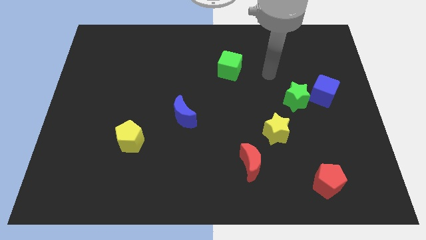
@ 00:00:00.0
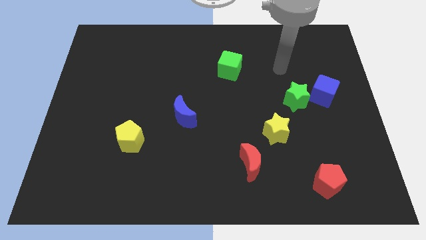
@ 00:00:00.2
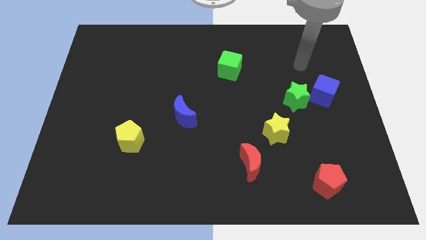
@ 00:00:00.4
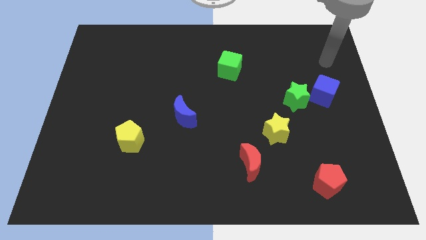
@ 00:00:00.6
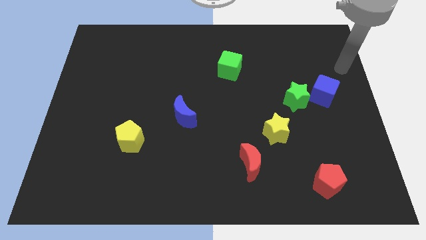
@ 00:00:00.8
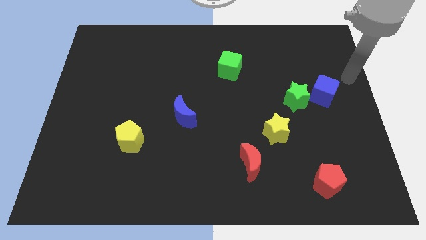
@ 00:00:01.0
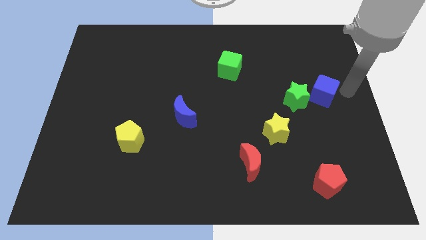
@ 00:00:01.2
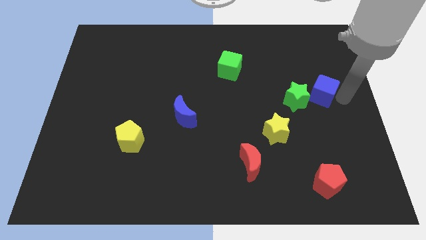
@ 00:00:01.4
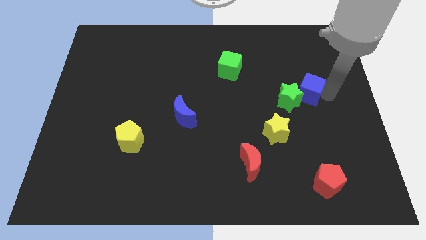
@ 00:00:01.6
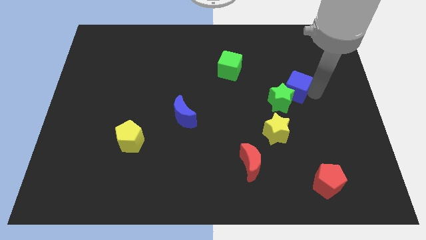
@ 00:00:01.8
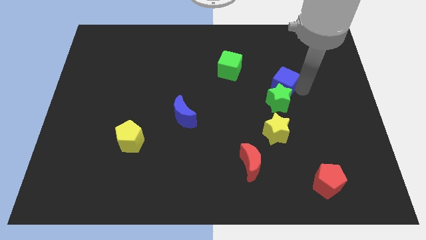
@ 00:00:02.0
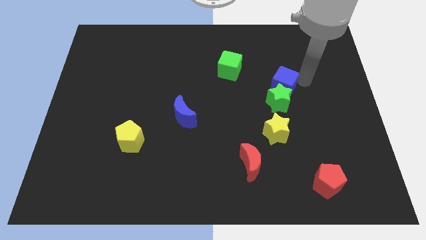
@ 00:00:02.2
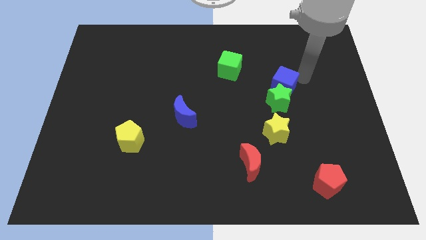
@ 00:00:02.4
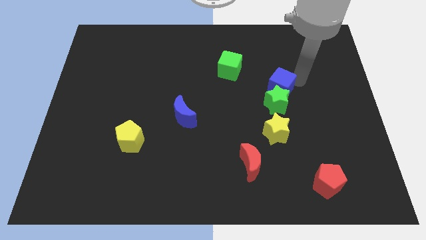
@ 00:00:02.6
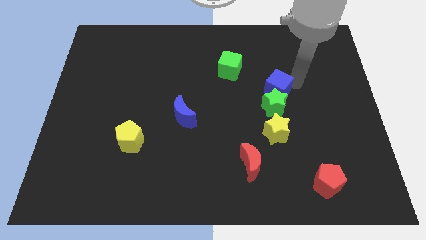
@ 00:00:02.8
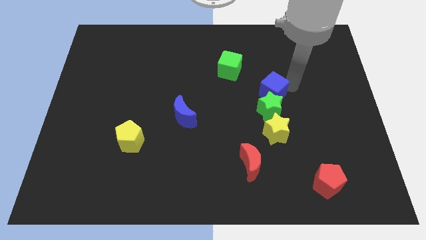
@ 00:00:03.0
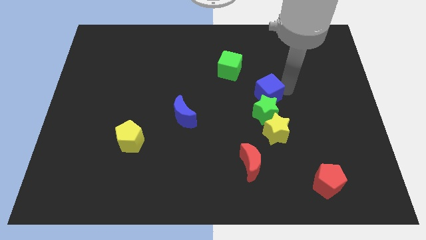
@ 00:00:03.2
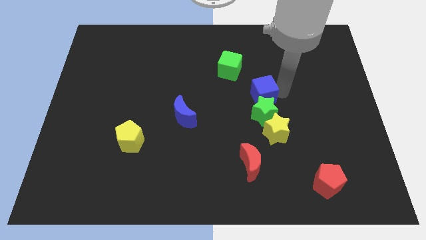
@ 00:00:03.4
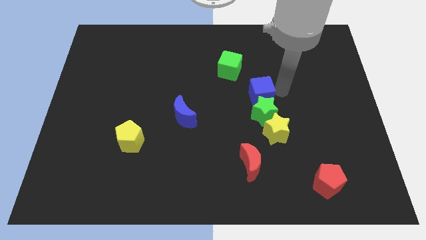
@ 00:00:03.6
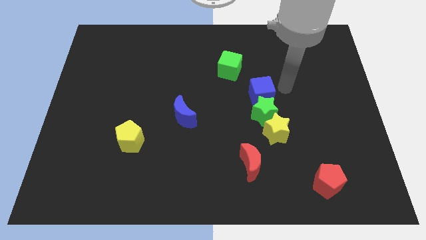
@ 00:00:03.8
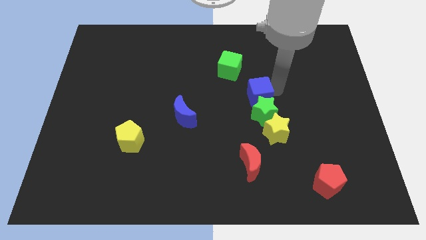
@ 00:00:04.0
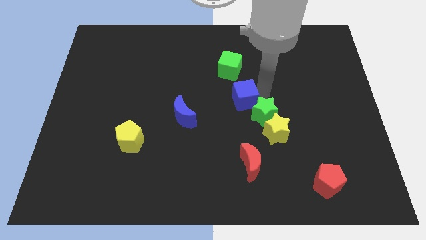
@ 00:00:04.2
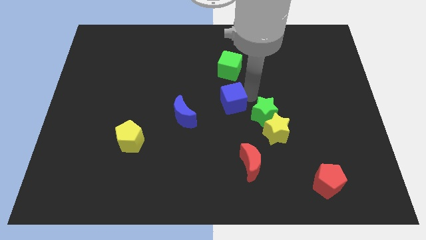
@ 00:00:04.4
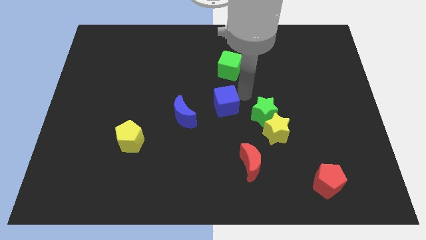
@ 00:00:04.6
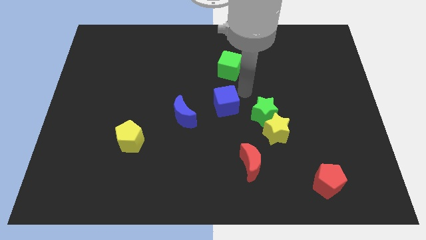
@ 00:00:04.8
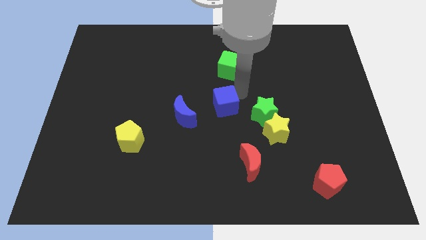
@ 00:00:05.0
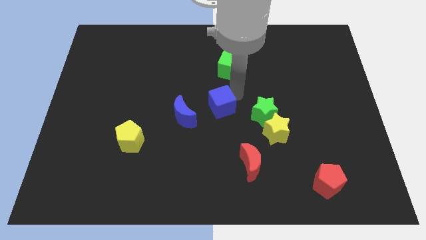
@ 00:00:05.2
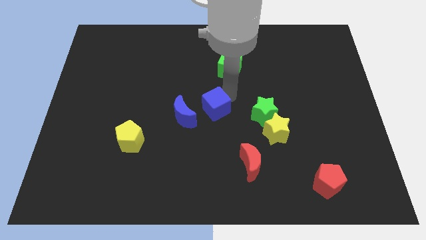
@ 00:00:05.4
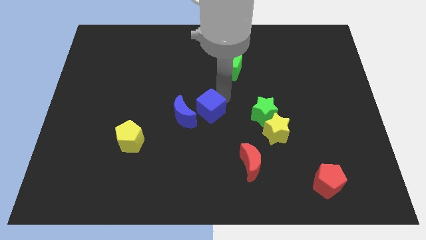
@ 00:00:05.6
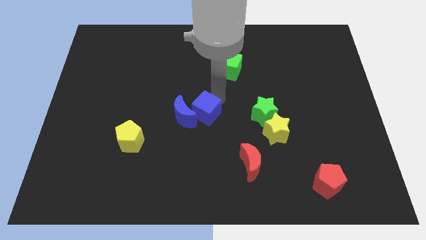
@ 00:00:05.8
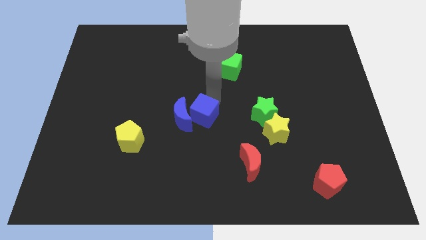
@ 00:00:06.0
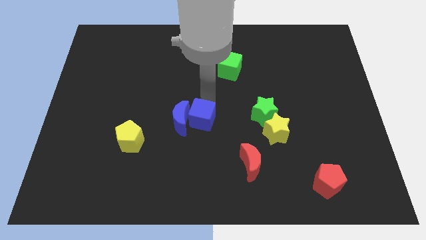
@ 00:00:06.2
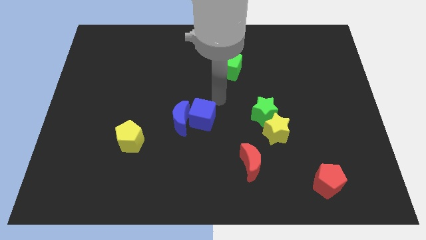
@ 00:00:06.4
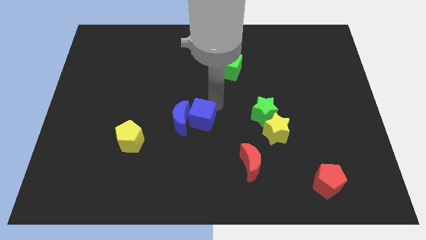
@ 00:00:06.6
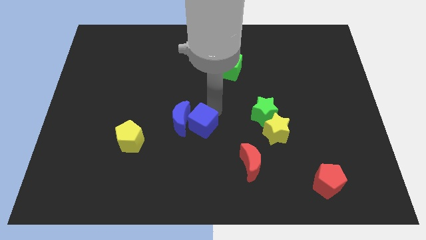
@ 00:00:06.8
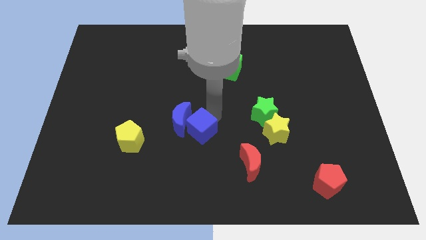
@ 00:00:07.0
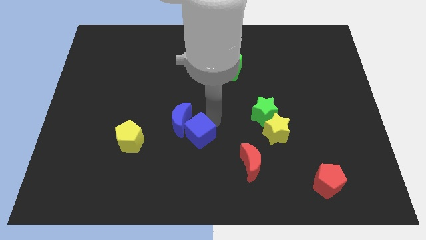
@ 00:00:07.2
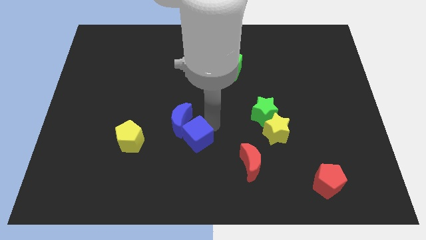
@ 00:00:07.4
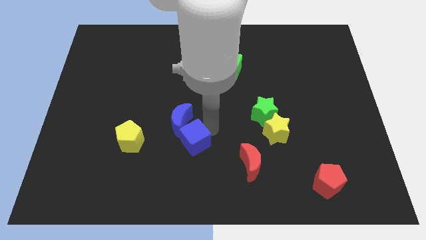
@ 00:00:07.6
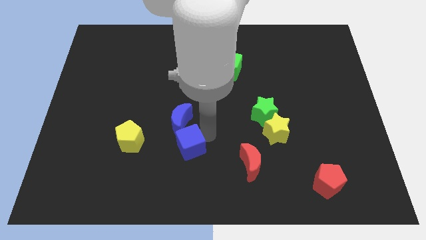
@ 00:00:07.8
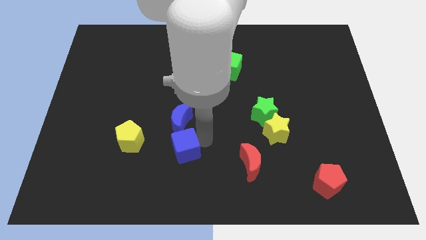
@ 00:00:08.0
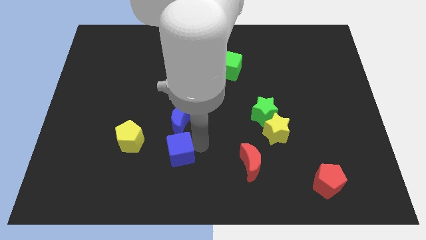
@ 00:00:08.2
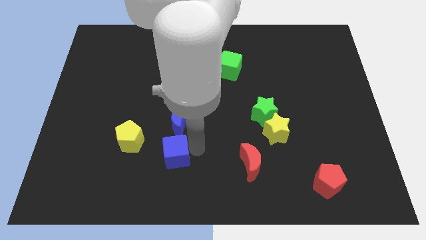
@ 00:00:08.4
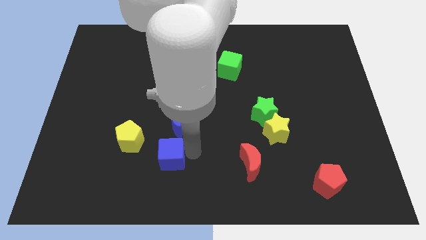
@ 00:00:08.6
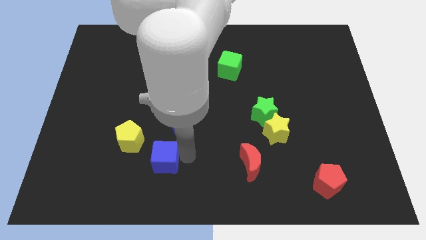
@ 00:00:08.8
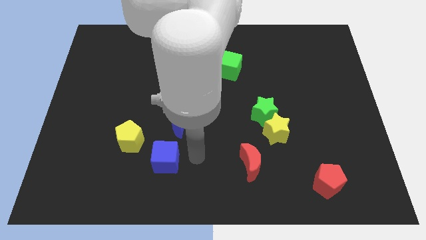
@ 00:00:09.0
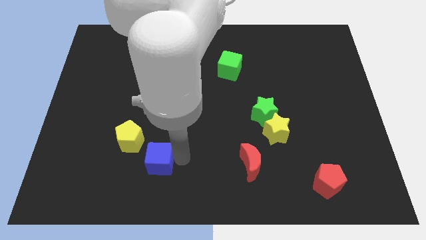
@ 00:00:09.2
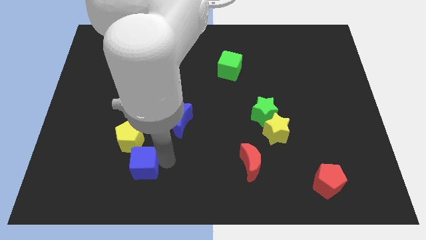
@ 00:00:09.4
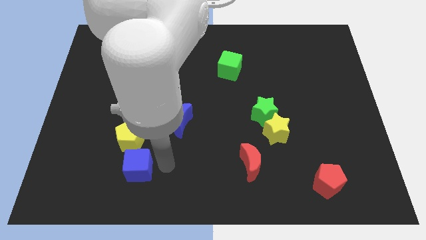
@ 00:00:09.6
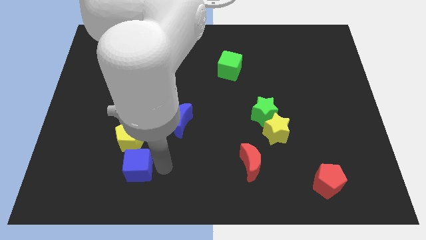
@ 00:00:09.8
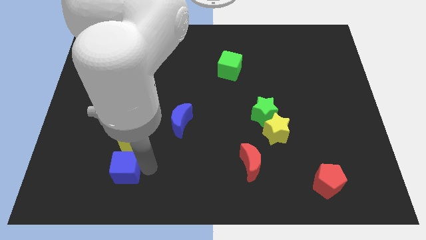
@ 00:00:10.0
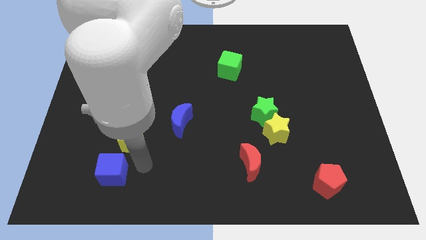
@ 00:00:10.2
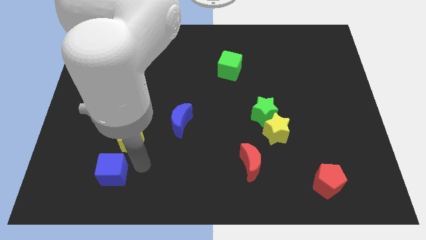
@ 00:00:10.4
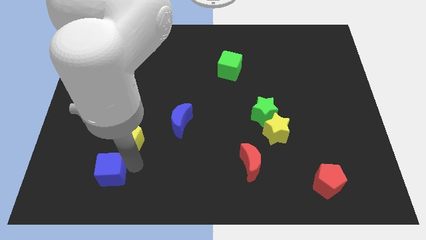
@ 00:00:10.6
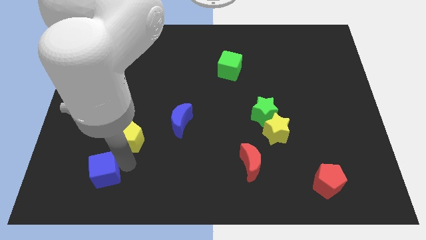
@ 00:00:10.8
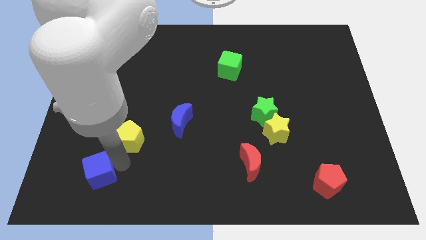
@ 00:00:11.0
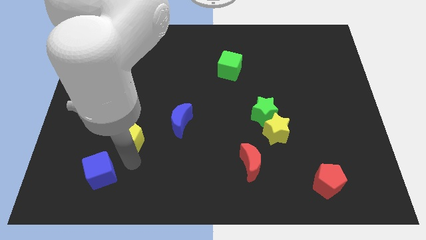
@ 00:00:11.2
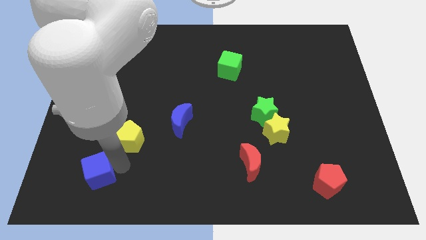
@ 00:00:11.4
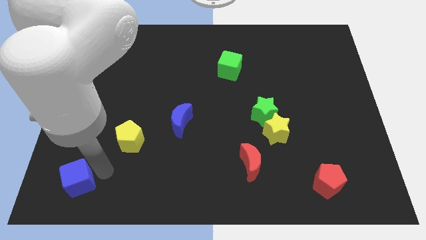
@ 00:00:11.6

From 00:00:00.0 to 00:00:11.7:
slide the blue cube to the bottom left corner

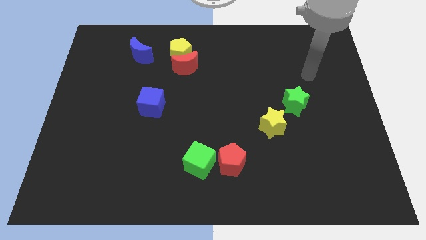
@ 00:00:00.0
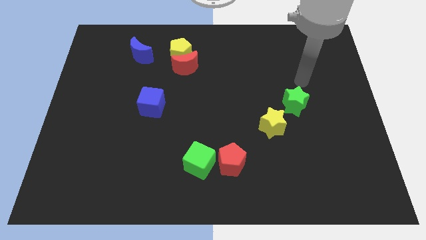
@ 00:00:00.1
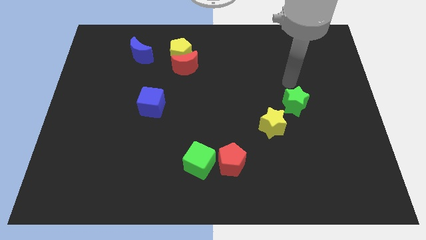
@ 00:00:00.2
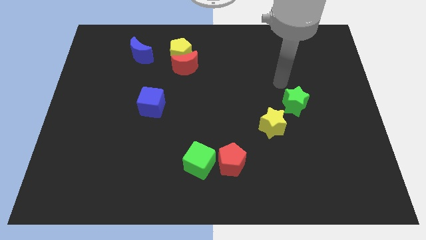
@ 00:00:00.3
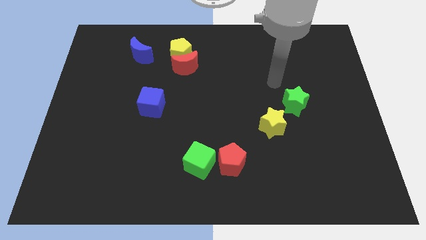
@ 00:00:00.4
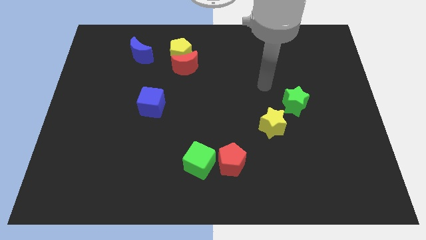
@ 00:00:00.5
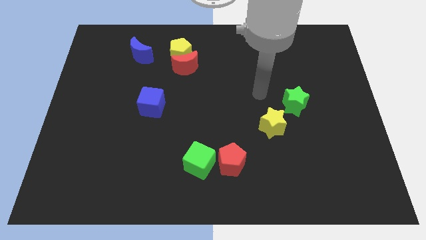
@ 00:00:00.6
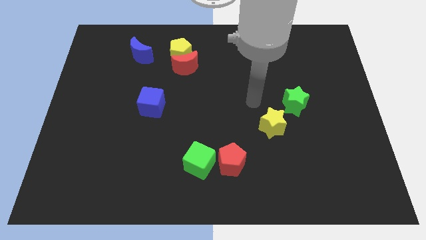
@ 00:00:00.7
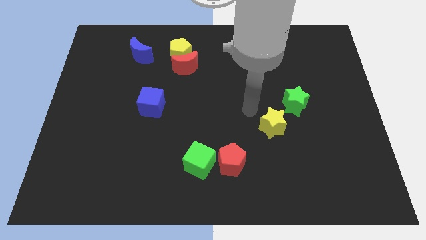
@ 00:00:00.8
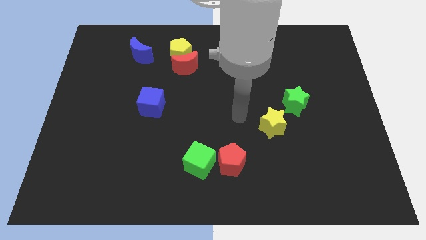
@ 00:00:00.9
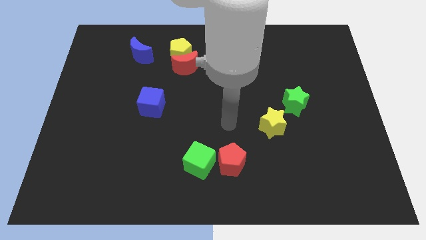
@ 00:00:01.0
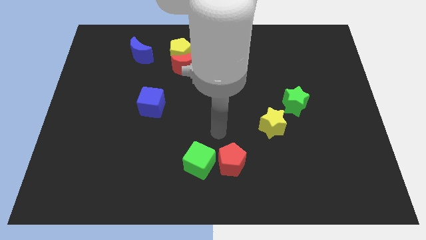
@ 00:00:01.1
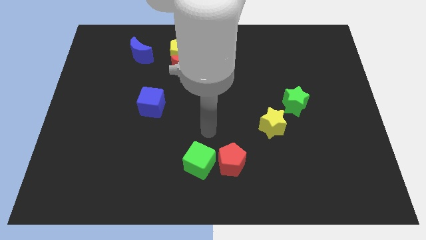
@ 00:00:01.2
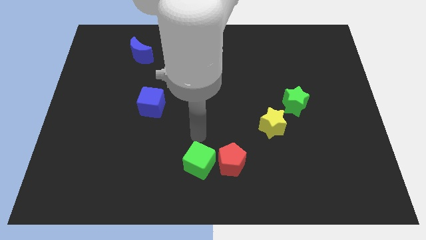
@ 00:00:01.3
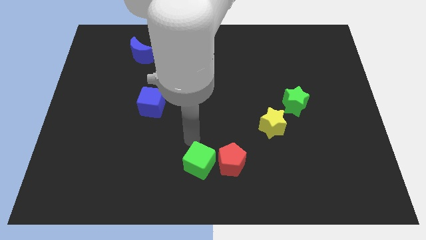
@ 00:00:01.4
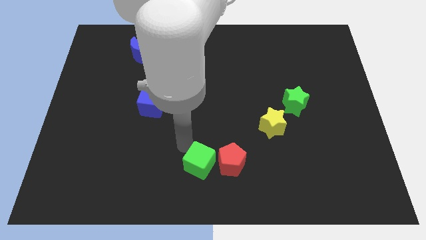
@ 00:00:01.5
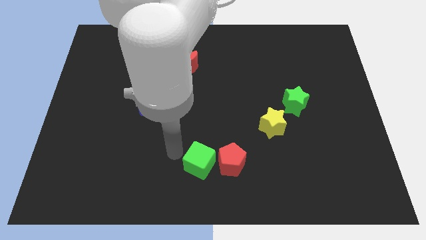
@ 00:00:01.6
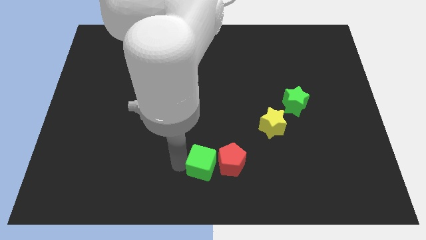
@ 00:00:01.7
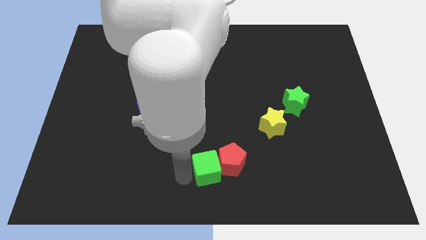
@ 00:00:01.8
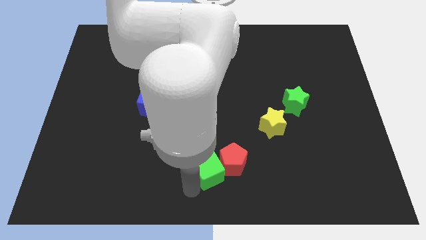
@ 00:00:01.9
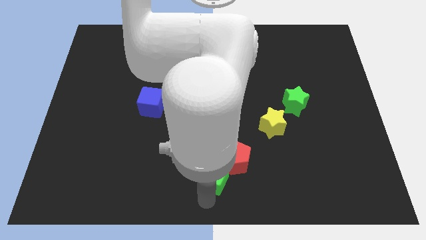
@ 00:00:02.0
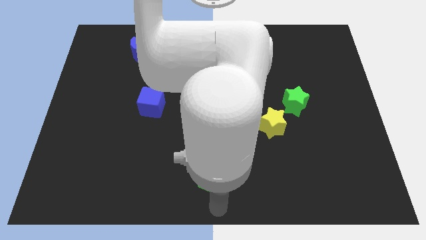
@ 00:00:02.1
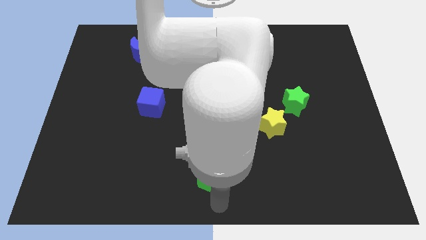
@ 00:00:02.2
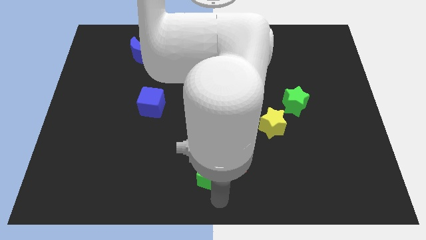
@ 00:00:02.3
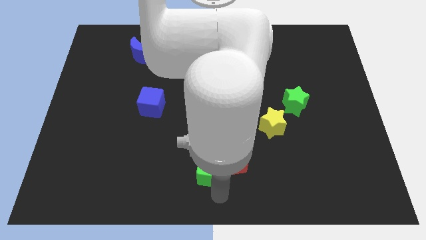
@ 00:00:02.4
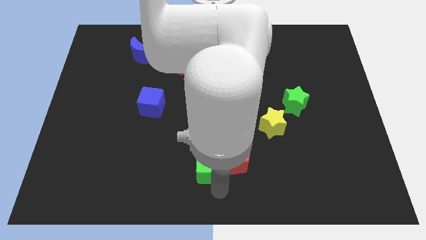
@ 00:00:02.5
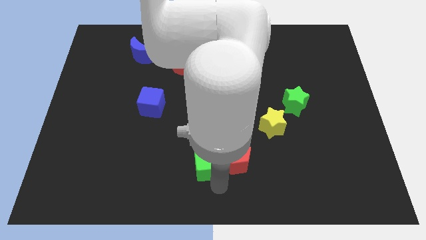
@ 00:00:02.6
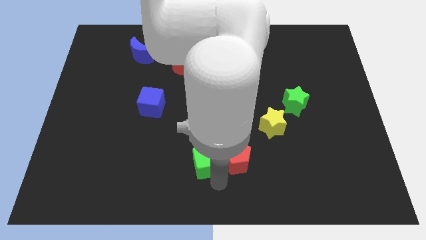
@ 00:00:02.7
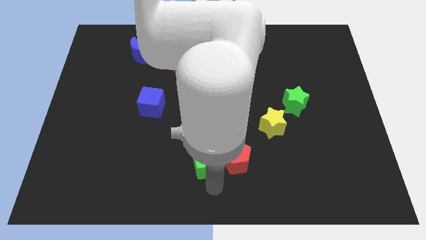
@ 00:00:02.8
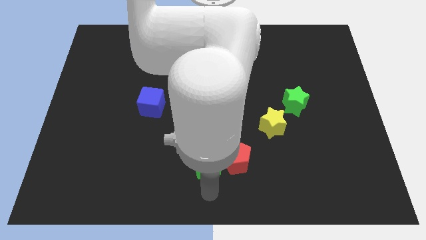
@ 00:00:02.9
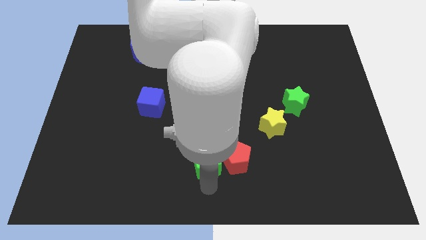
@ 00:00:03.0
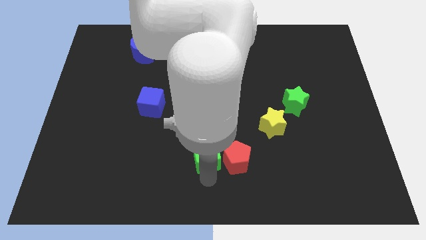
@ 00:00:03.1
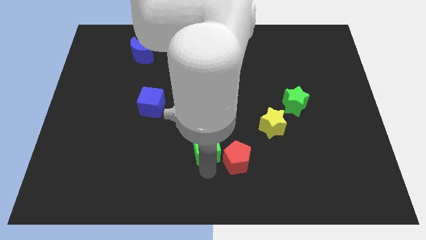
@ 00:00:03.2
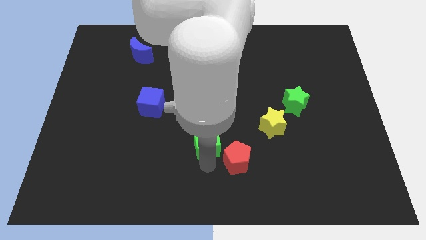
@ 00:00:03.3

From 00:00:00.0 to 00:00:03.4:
push the green cube to the middle
